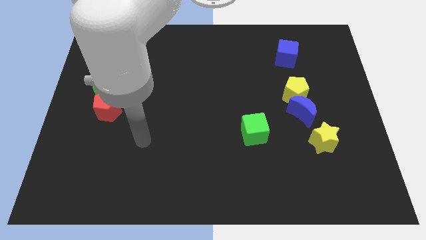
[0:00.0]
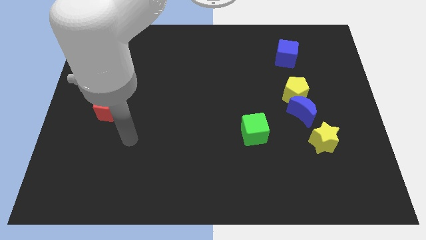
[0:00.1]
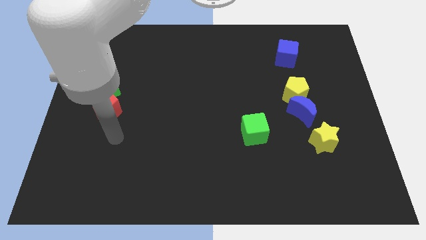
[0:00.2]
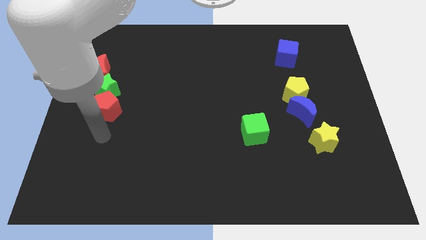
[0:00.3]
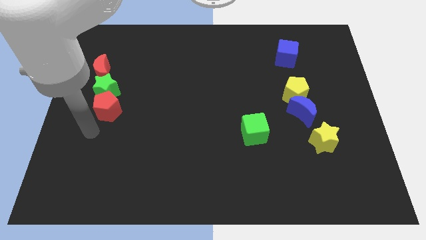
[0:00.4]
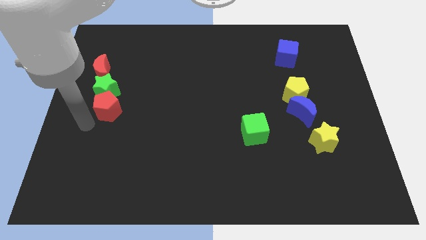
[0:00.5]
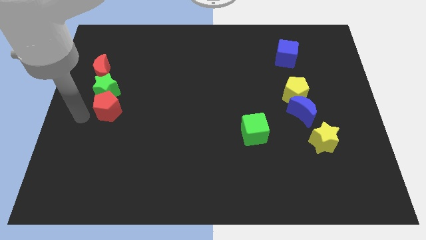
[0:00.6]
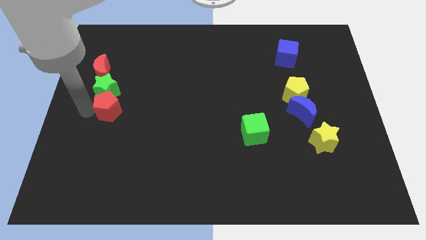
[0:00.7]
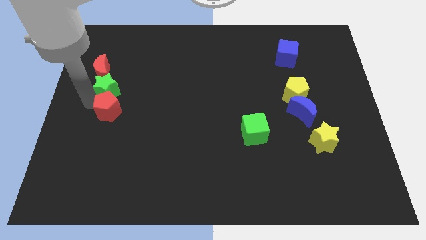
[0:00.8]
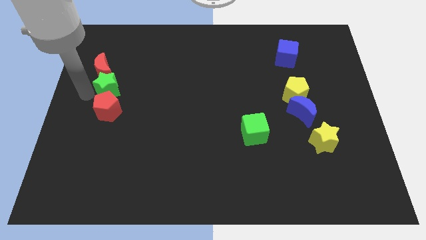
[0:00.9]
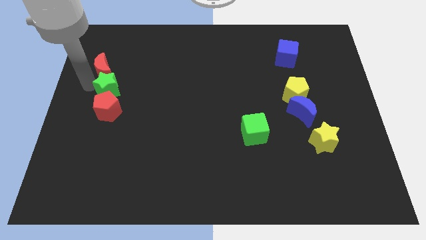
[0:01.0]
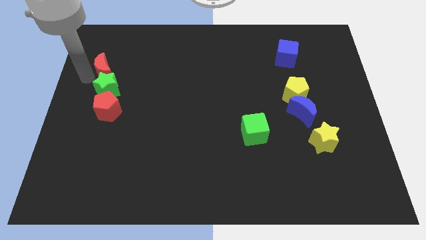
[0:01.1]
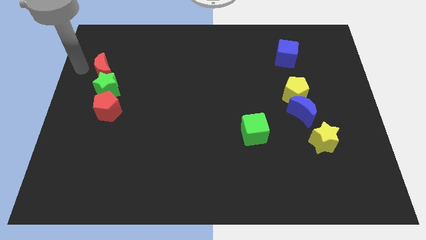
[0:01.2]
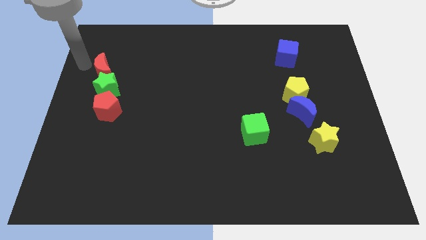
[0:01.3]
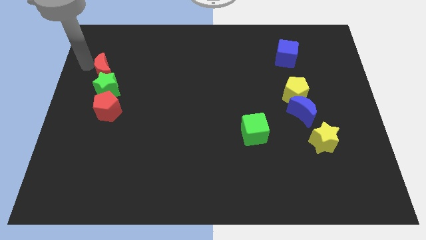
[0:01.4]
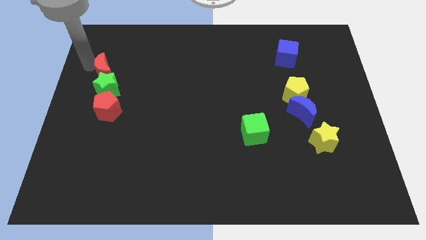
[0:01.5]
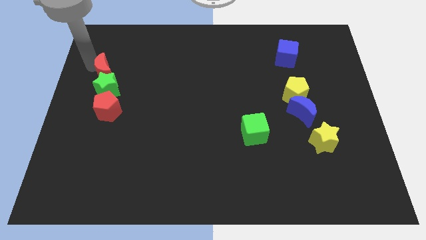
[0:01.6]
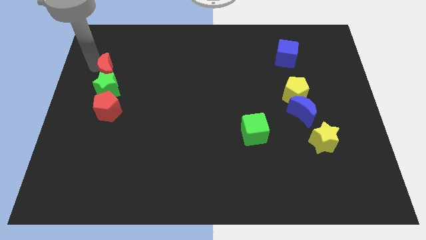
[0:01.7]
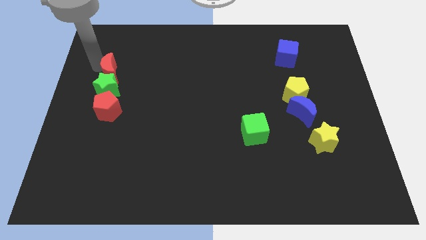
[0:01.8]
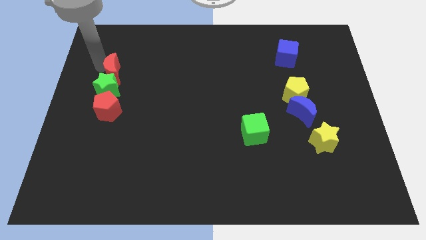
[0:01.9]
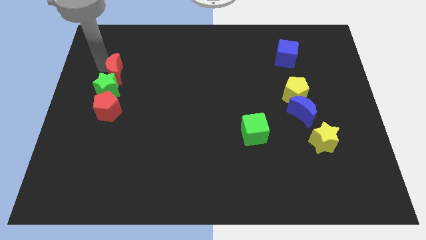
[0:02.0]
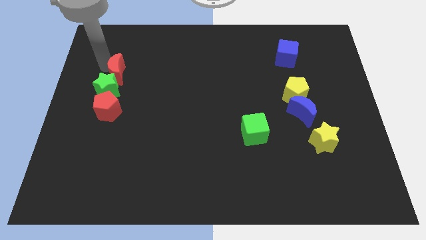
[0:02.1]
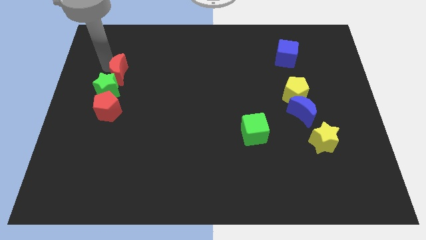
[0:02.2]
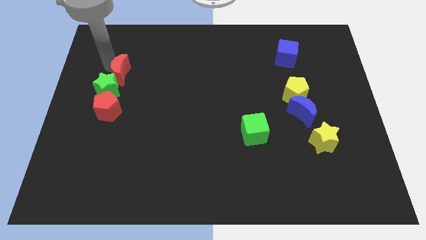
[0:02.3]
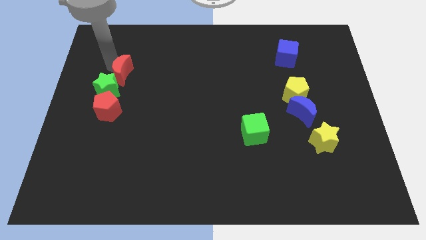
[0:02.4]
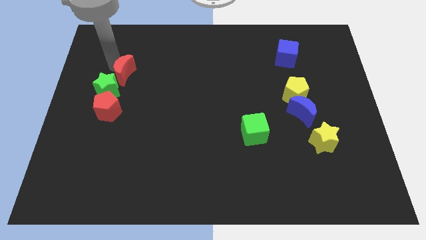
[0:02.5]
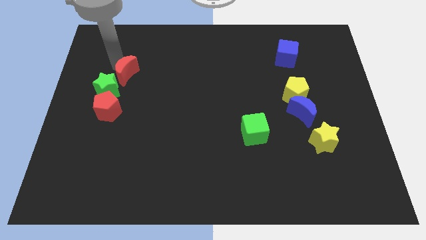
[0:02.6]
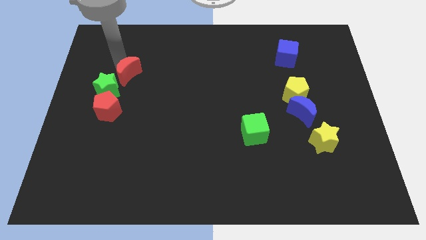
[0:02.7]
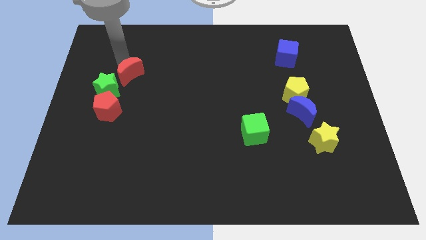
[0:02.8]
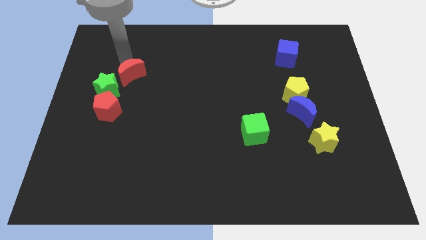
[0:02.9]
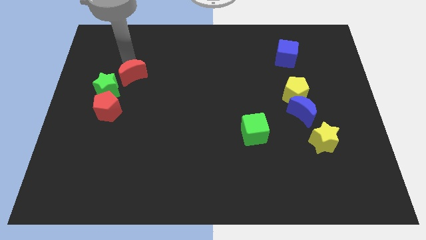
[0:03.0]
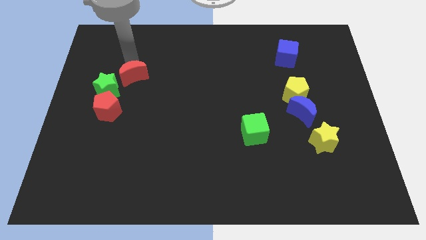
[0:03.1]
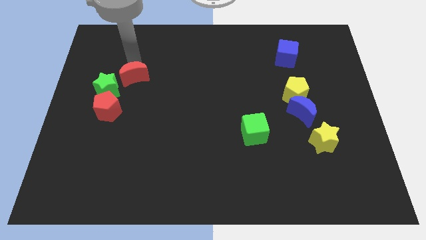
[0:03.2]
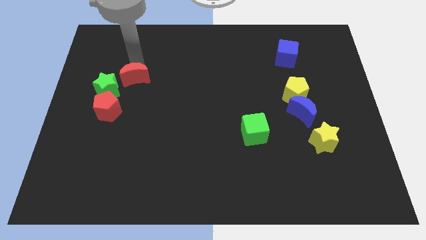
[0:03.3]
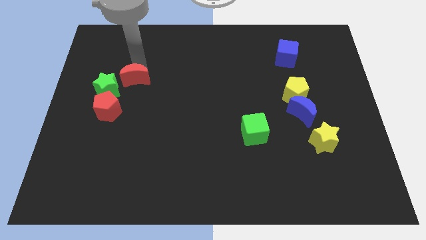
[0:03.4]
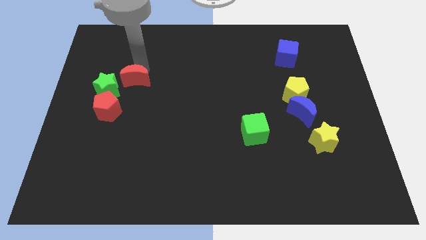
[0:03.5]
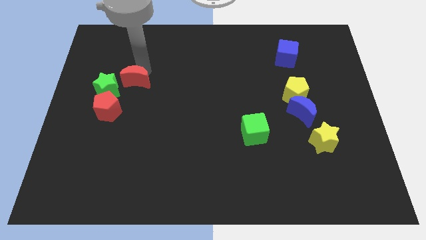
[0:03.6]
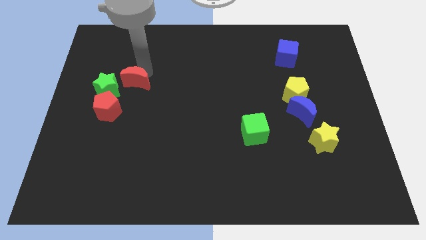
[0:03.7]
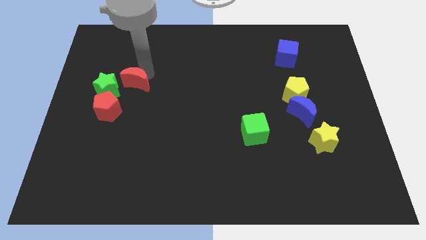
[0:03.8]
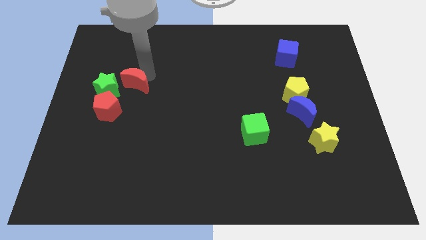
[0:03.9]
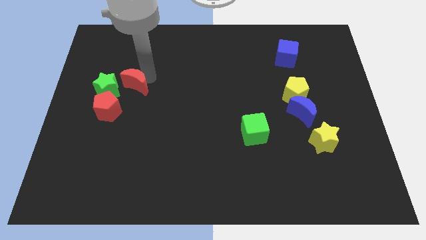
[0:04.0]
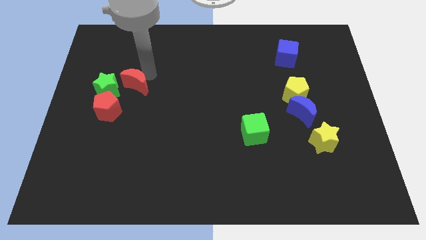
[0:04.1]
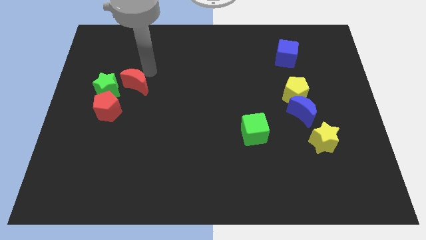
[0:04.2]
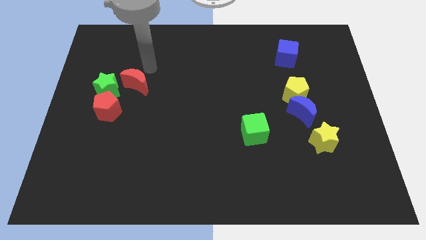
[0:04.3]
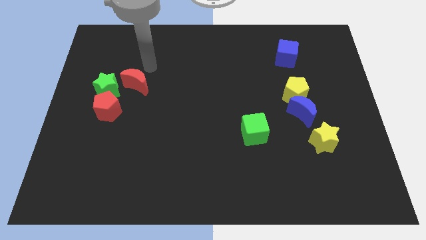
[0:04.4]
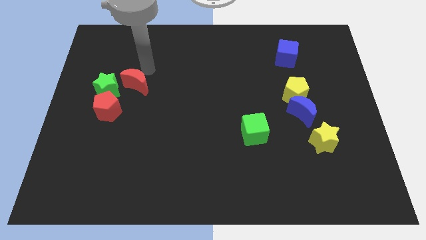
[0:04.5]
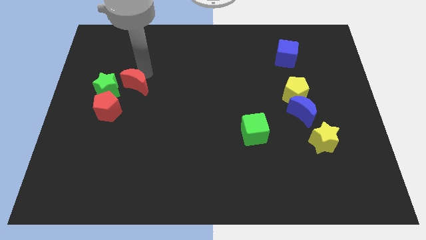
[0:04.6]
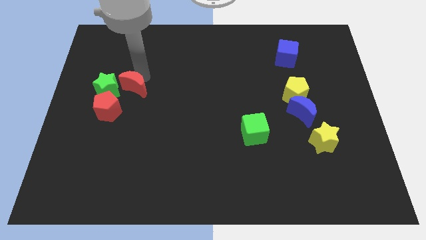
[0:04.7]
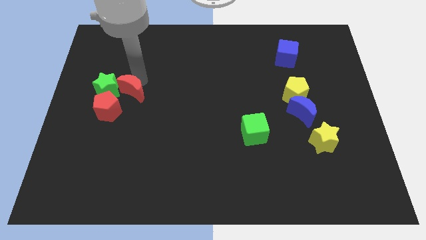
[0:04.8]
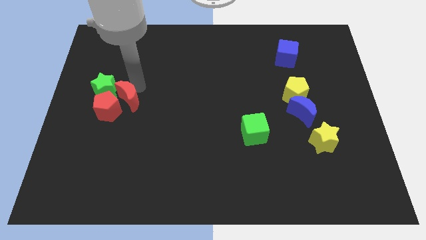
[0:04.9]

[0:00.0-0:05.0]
push the red moon to the red pentagon

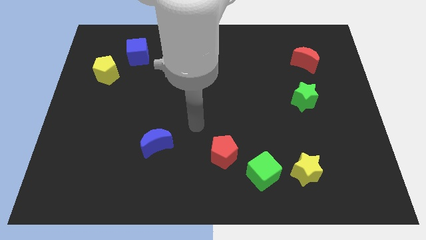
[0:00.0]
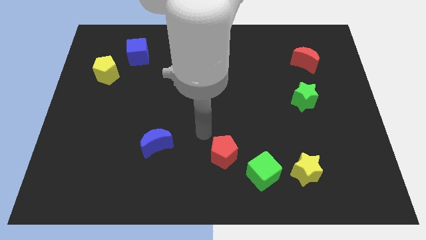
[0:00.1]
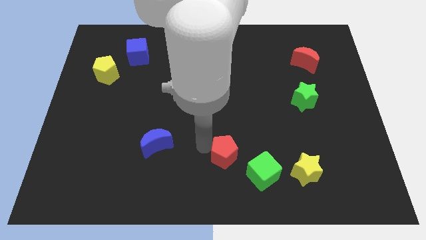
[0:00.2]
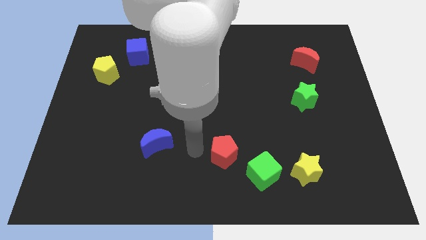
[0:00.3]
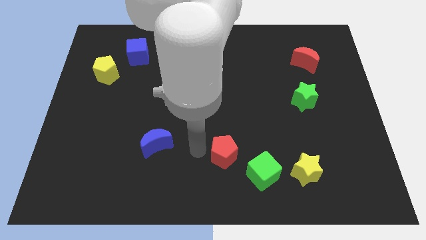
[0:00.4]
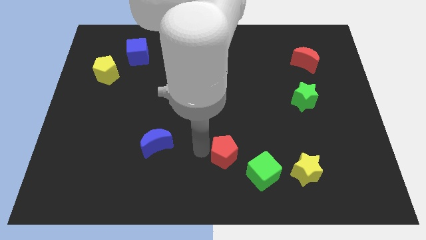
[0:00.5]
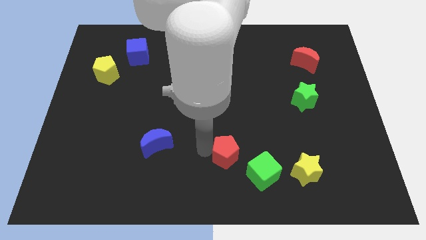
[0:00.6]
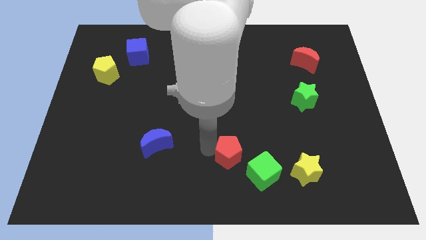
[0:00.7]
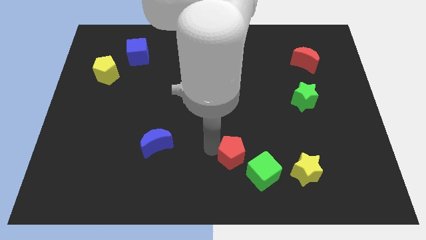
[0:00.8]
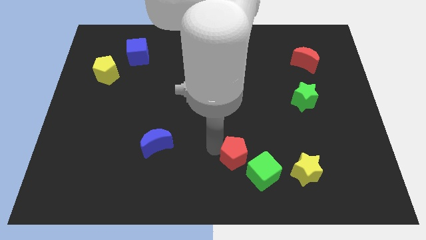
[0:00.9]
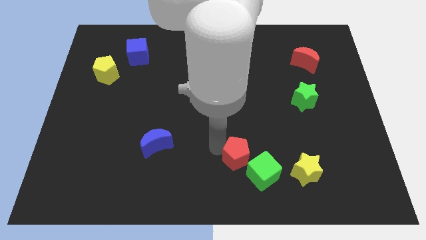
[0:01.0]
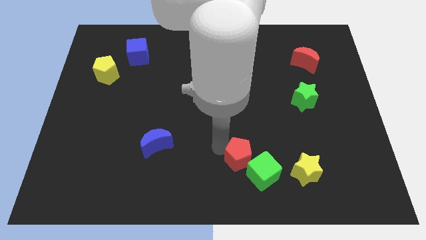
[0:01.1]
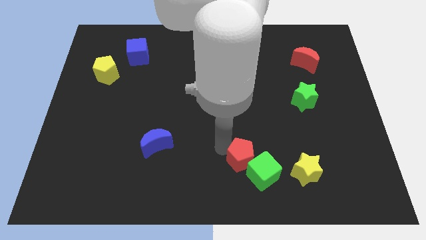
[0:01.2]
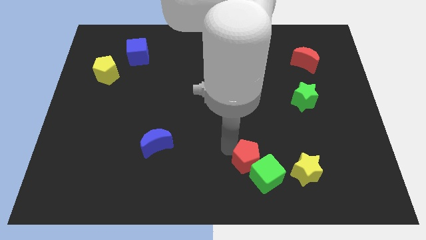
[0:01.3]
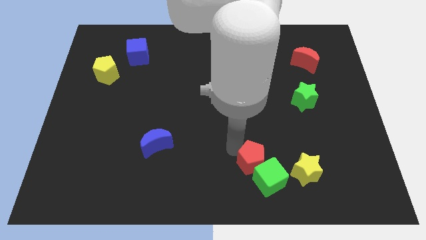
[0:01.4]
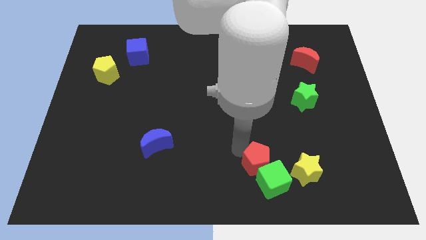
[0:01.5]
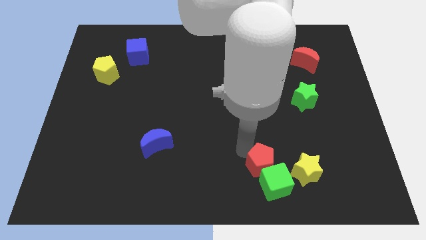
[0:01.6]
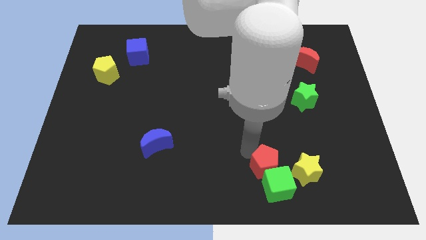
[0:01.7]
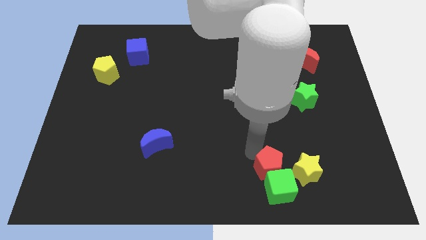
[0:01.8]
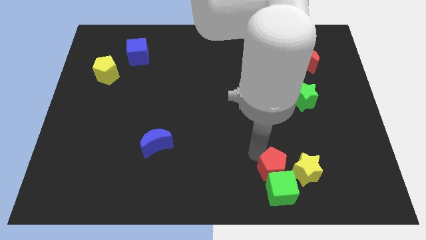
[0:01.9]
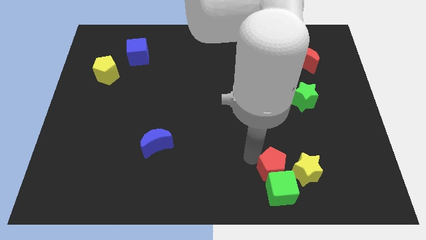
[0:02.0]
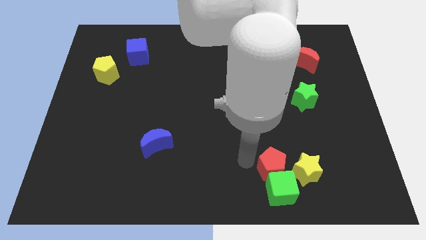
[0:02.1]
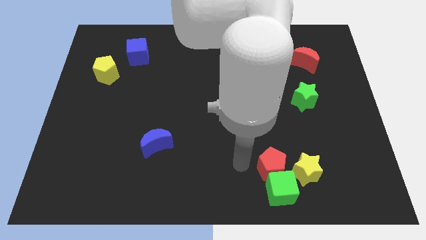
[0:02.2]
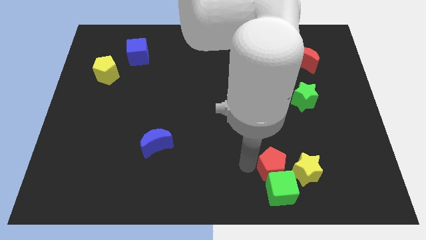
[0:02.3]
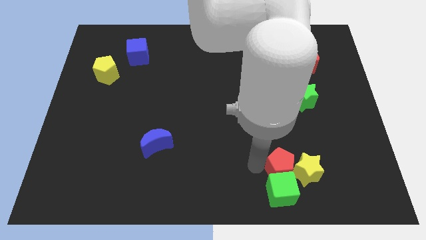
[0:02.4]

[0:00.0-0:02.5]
slide the red pentagon to the yellow star
